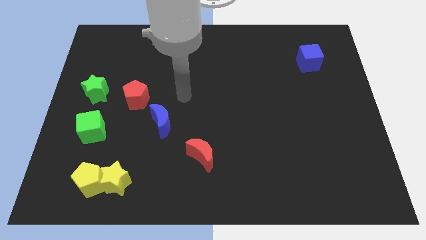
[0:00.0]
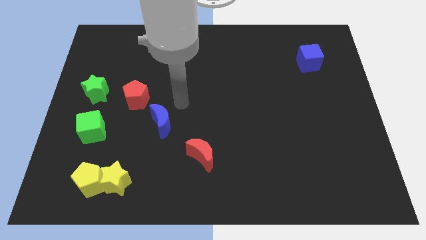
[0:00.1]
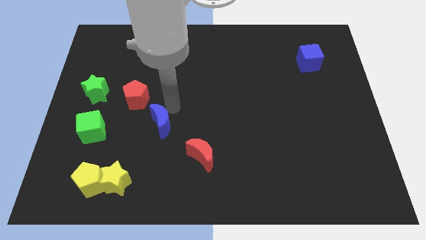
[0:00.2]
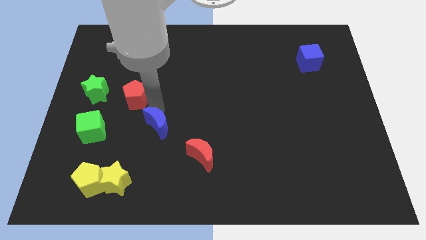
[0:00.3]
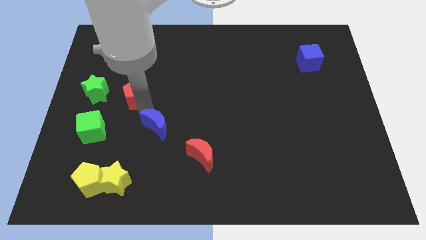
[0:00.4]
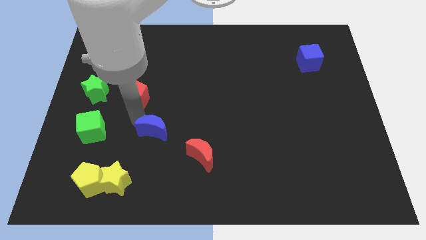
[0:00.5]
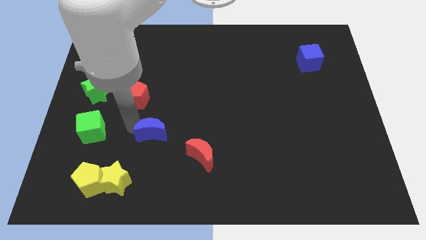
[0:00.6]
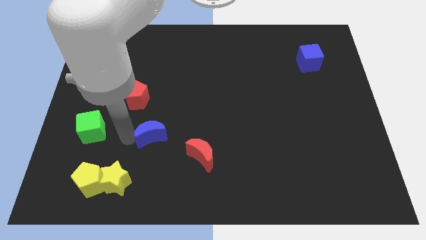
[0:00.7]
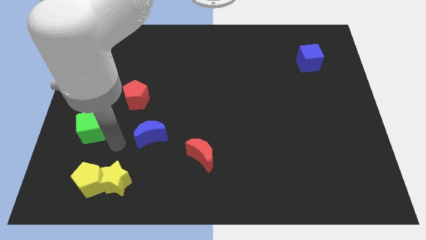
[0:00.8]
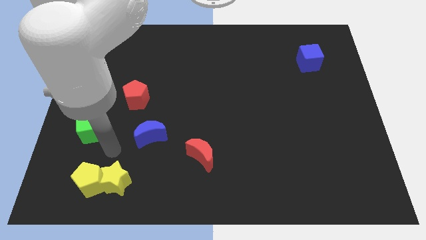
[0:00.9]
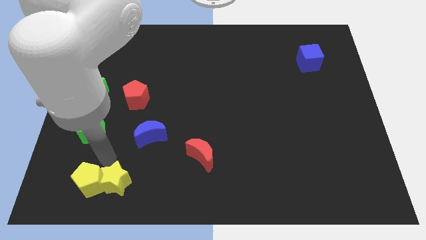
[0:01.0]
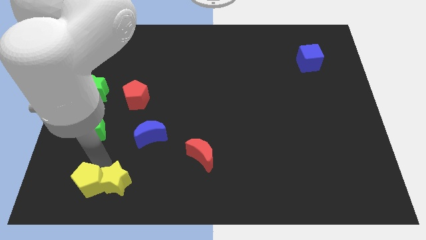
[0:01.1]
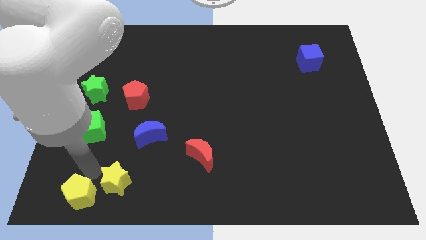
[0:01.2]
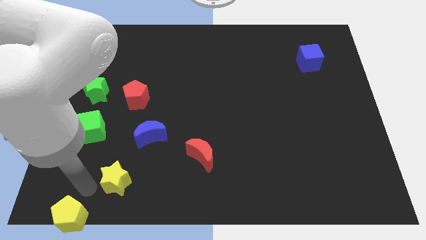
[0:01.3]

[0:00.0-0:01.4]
separate the yellow star from the yellow pentagon

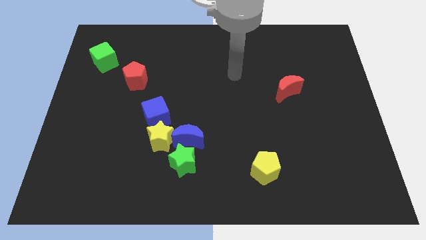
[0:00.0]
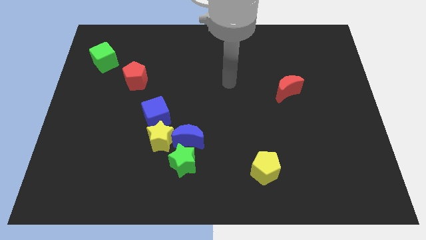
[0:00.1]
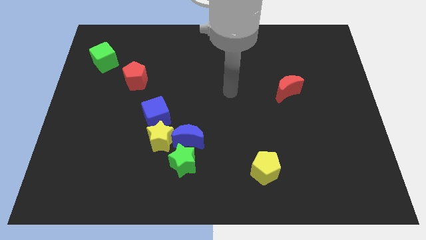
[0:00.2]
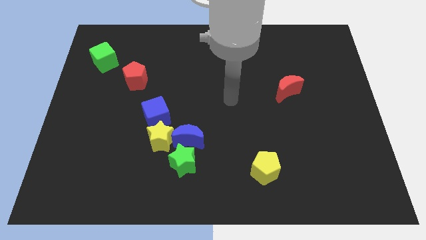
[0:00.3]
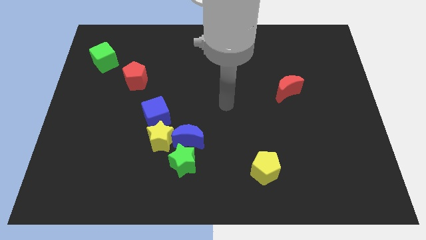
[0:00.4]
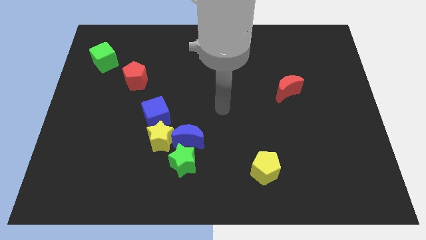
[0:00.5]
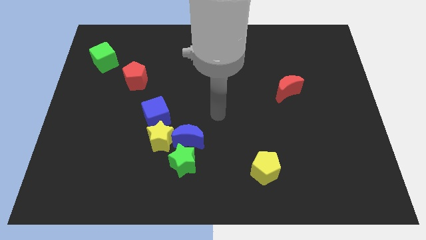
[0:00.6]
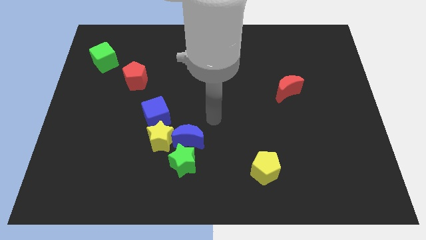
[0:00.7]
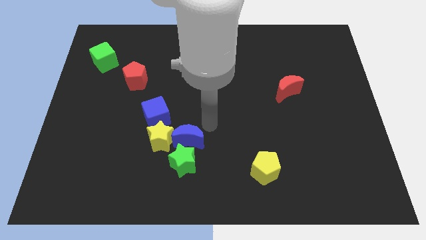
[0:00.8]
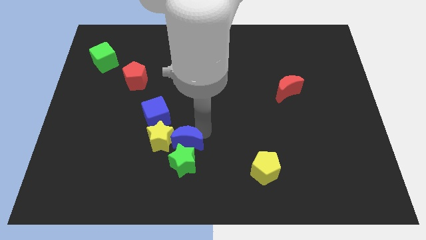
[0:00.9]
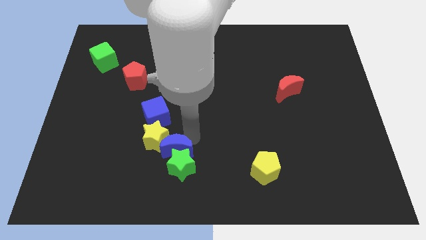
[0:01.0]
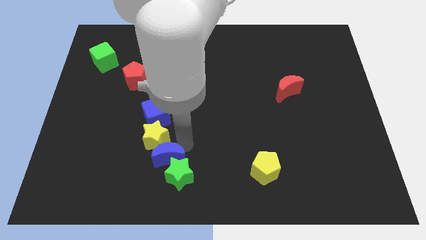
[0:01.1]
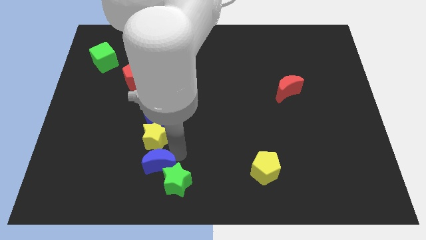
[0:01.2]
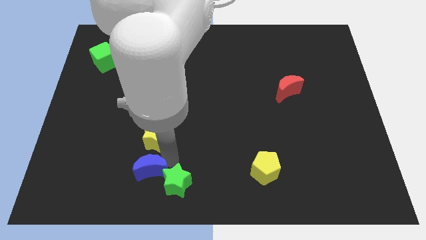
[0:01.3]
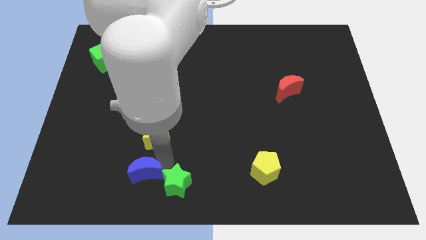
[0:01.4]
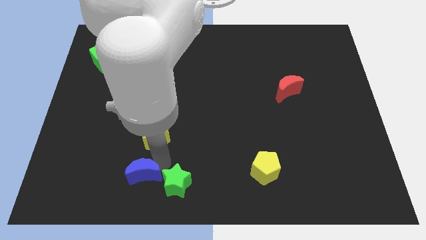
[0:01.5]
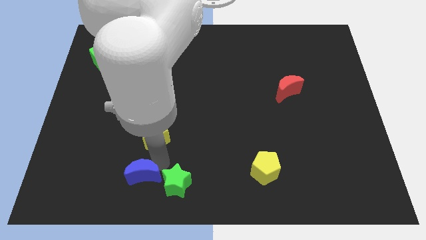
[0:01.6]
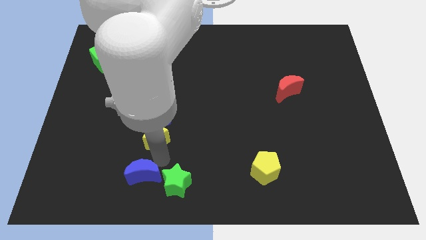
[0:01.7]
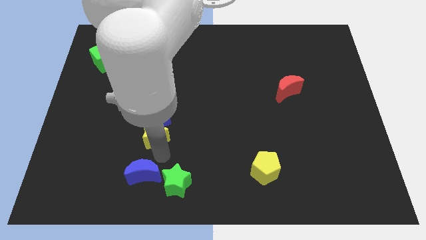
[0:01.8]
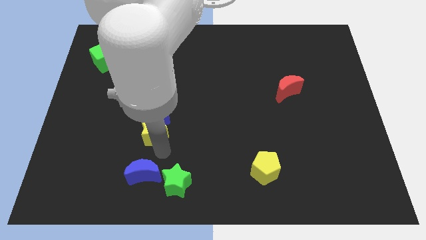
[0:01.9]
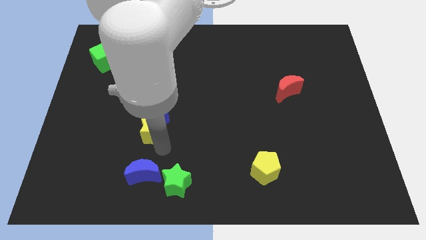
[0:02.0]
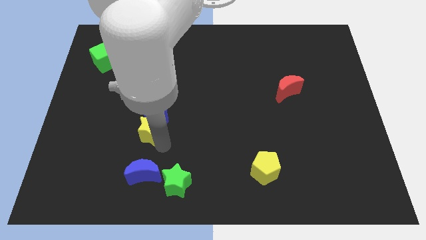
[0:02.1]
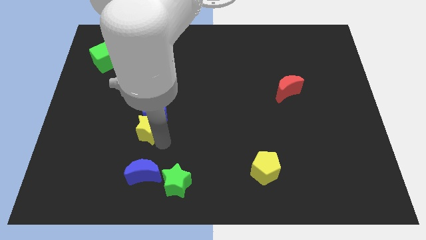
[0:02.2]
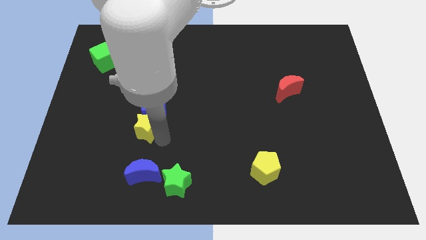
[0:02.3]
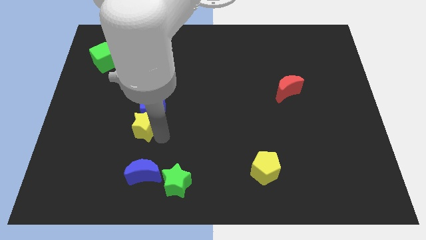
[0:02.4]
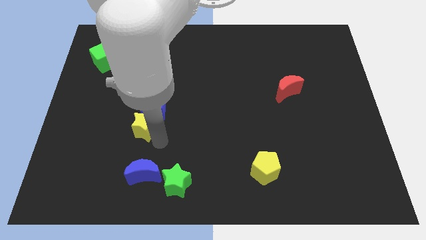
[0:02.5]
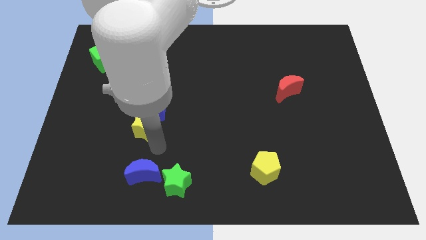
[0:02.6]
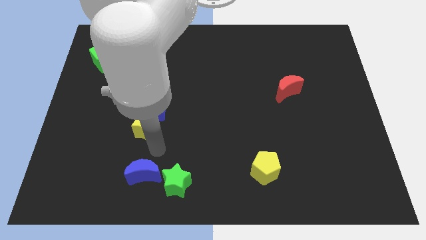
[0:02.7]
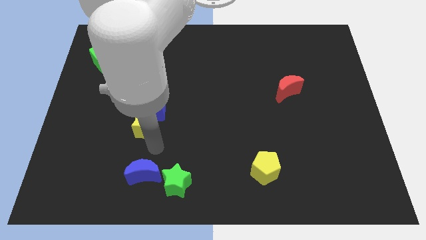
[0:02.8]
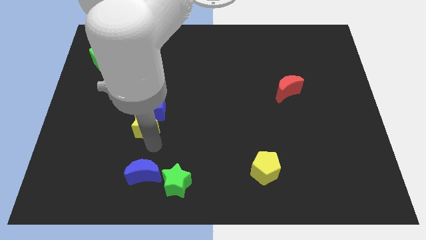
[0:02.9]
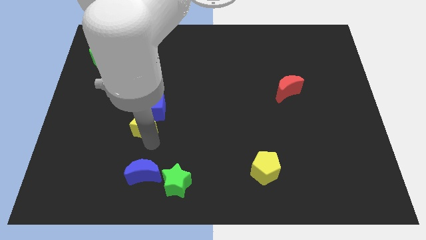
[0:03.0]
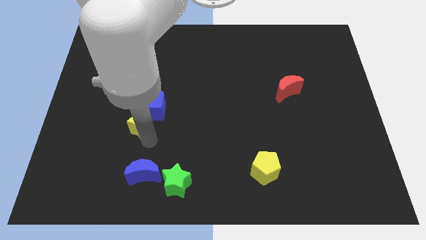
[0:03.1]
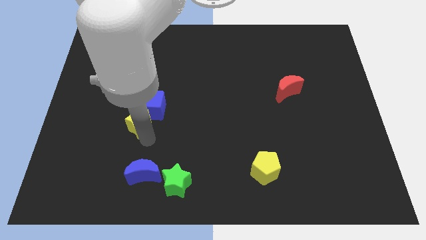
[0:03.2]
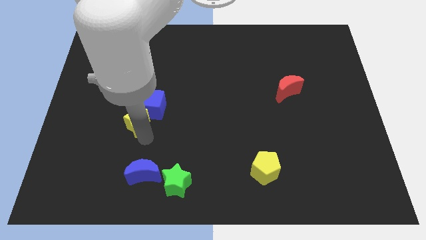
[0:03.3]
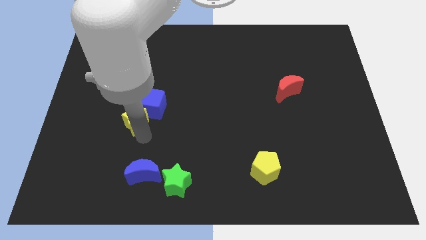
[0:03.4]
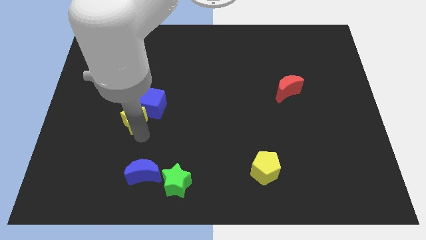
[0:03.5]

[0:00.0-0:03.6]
move the yellow star away from the blue moon, blue cube, and green star

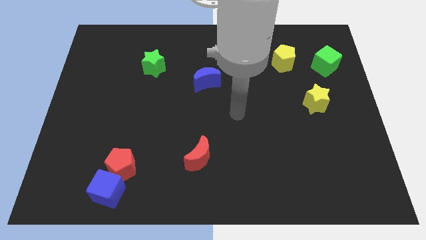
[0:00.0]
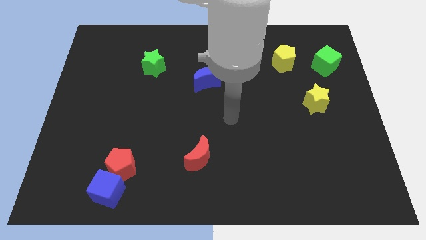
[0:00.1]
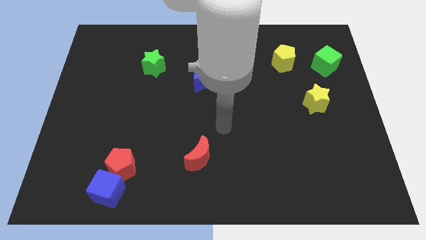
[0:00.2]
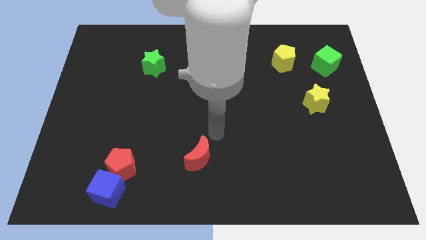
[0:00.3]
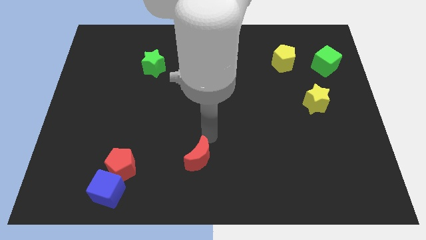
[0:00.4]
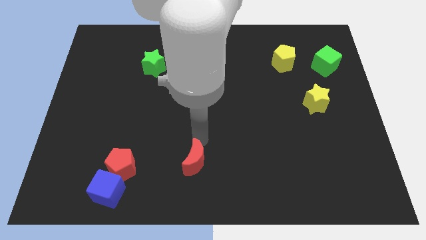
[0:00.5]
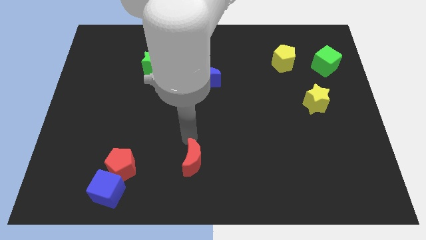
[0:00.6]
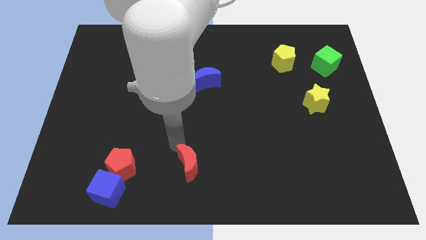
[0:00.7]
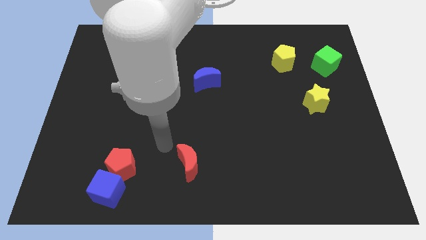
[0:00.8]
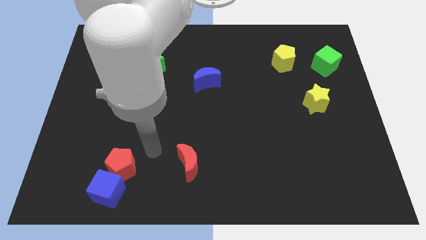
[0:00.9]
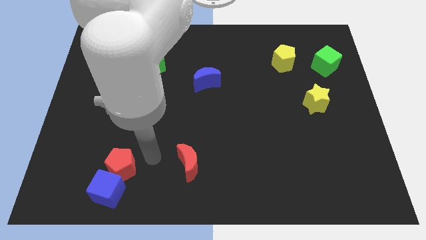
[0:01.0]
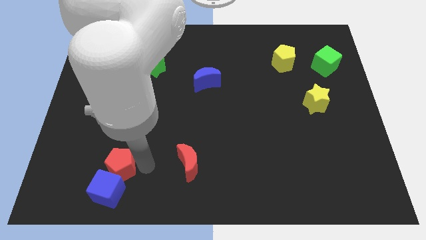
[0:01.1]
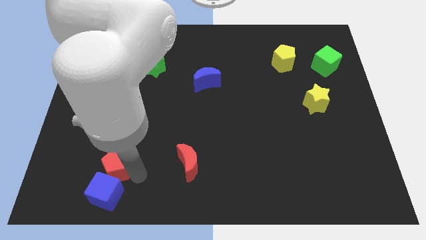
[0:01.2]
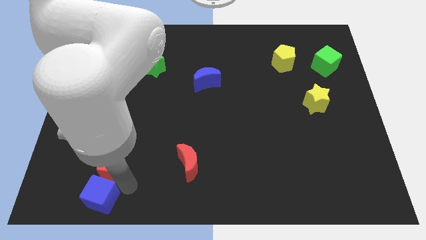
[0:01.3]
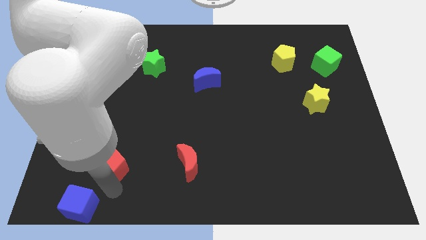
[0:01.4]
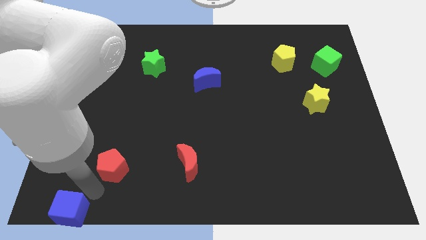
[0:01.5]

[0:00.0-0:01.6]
move the red pentagon away from the blue cube

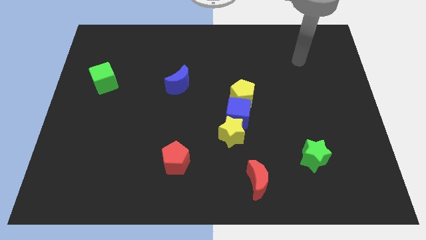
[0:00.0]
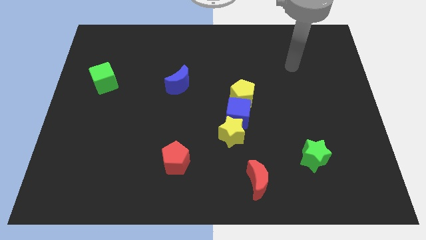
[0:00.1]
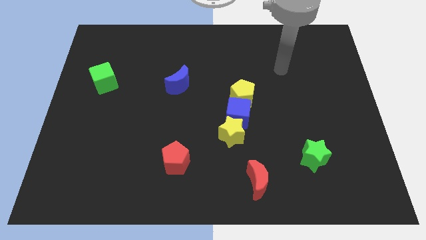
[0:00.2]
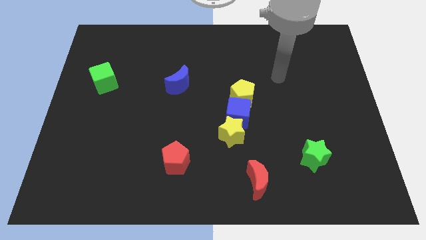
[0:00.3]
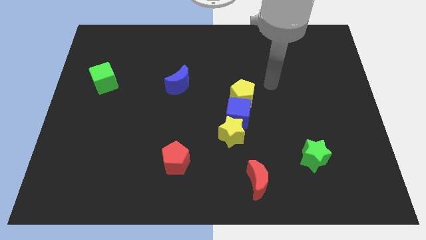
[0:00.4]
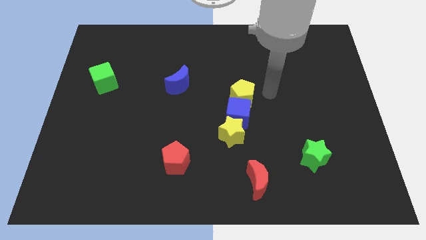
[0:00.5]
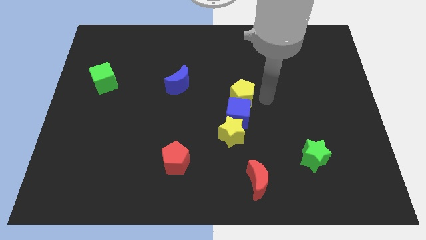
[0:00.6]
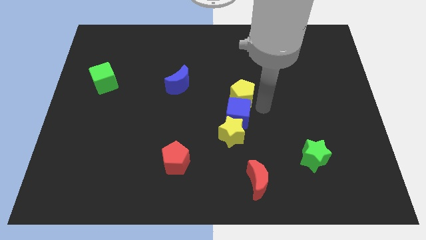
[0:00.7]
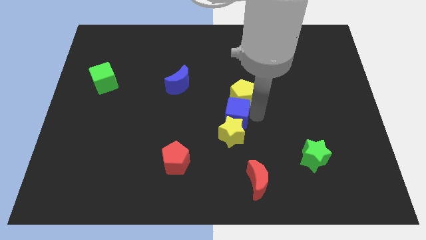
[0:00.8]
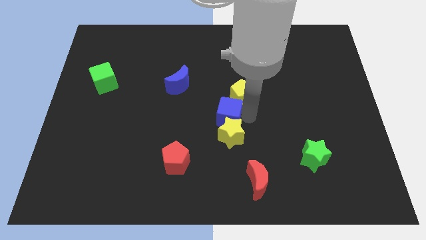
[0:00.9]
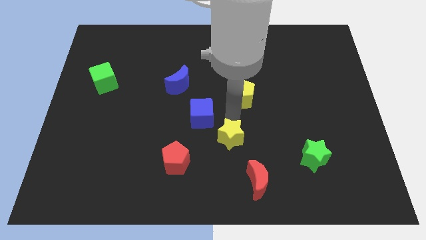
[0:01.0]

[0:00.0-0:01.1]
move the yellow pentagon away from the blue cube

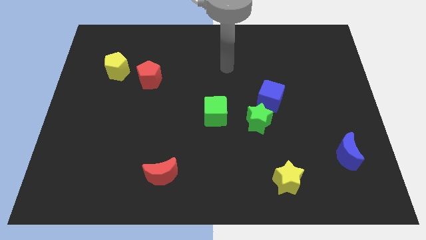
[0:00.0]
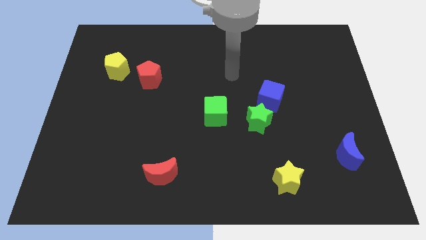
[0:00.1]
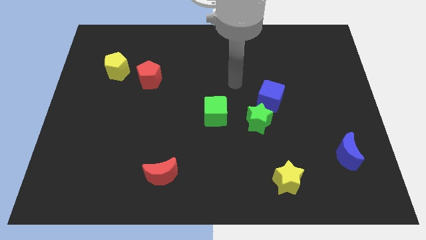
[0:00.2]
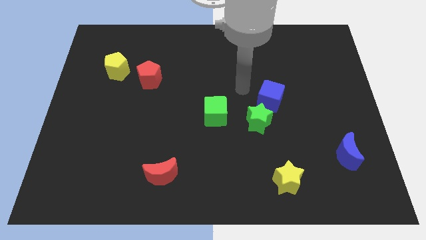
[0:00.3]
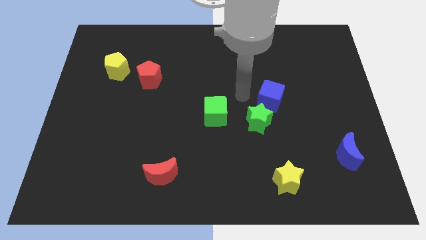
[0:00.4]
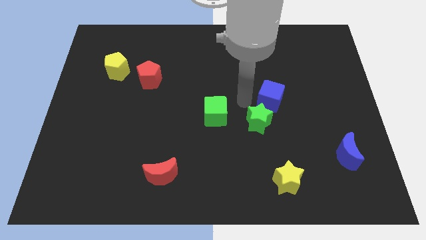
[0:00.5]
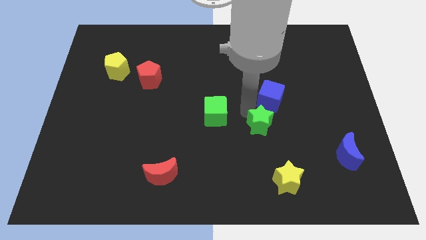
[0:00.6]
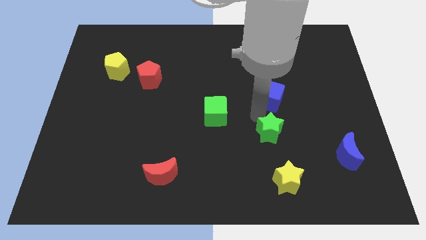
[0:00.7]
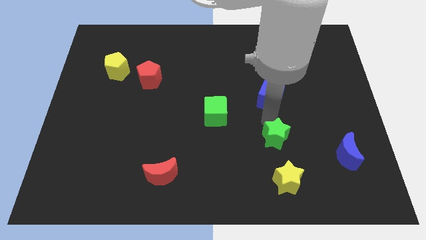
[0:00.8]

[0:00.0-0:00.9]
move the blue cube away from the green star

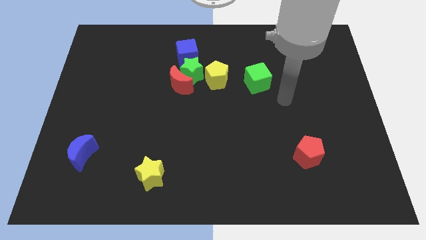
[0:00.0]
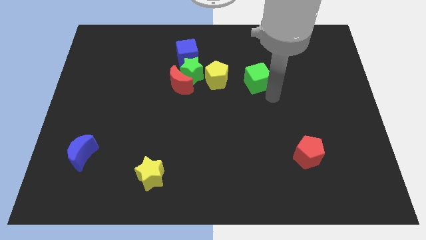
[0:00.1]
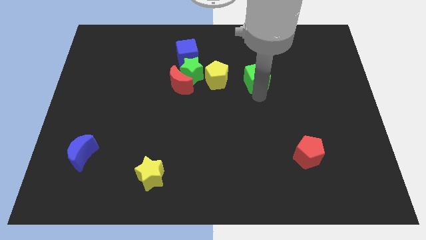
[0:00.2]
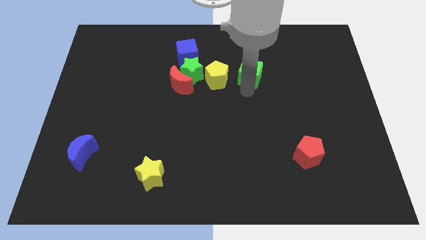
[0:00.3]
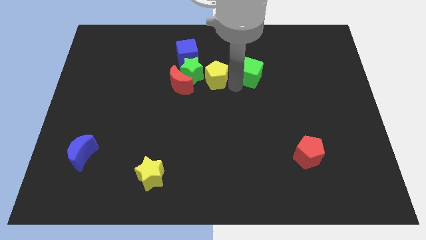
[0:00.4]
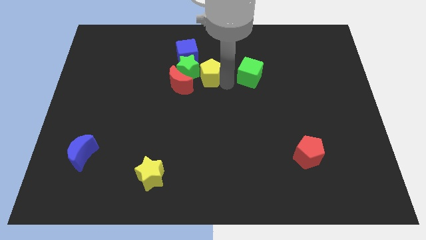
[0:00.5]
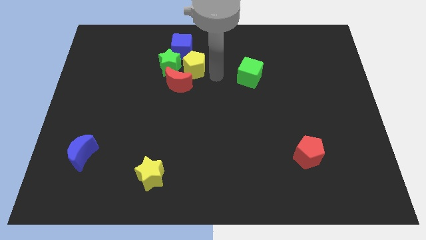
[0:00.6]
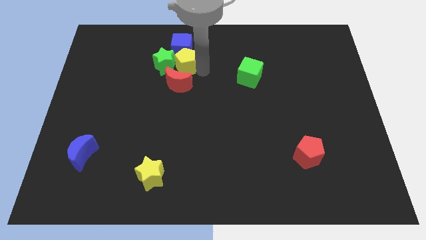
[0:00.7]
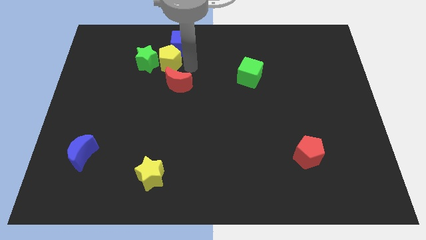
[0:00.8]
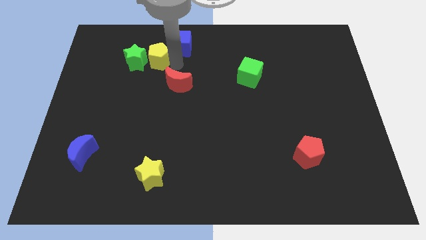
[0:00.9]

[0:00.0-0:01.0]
separate the green star from the red moon, blue cube, and yellow pentagon
